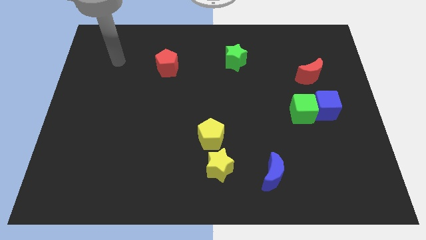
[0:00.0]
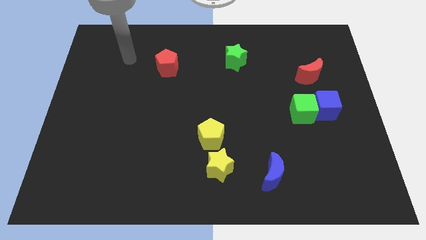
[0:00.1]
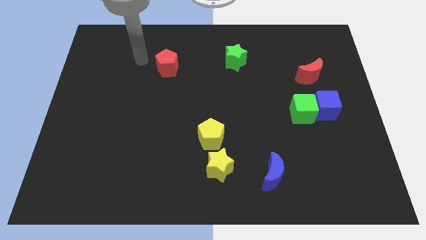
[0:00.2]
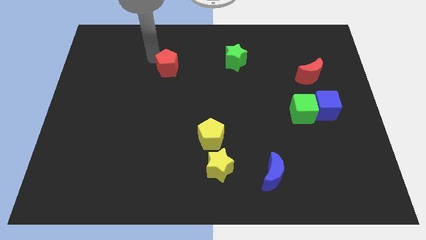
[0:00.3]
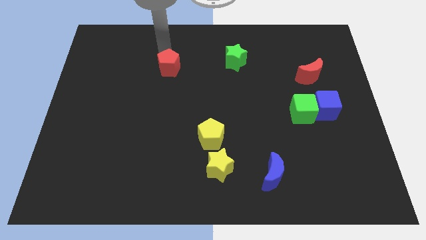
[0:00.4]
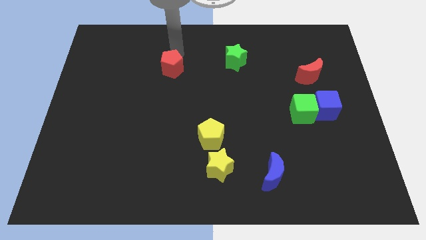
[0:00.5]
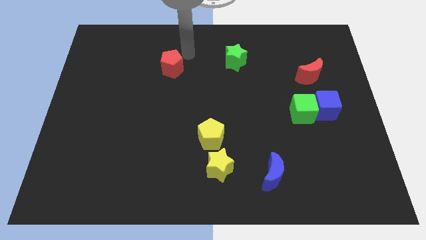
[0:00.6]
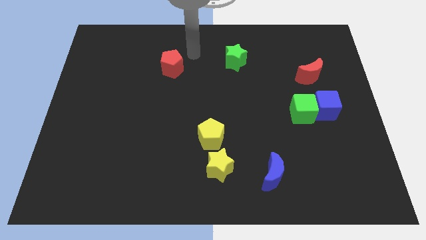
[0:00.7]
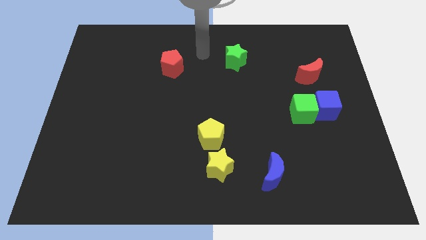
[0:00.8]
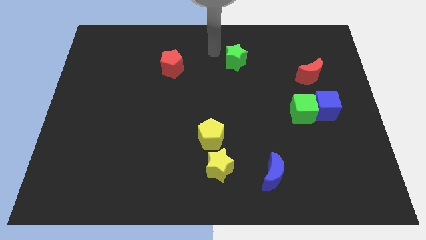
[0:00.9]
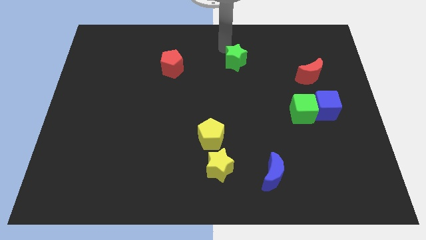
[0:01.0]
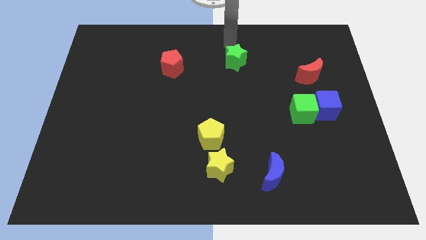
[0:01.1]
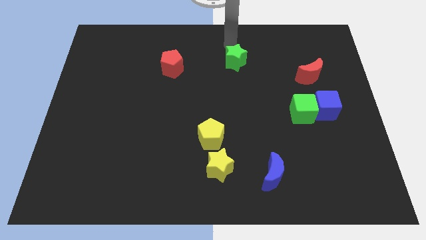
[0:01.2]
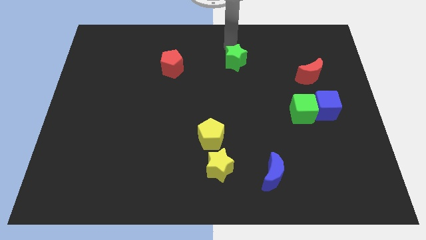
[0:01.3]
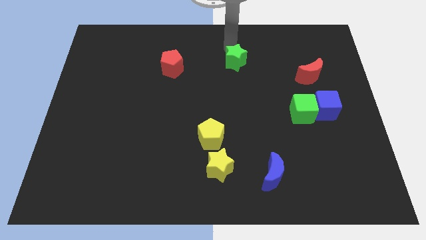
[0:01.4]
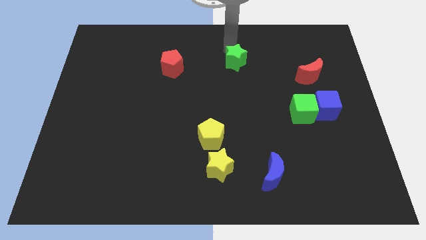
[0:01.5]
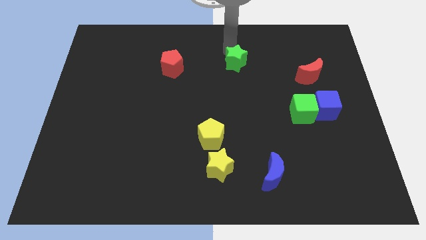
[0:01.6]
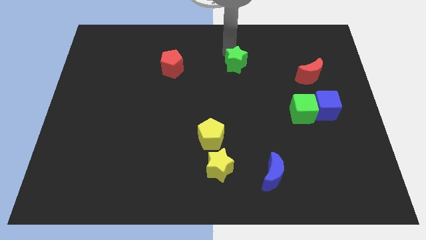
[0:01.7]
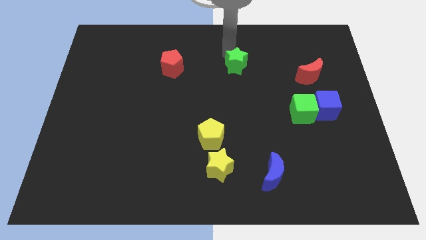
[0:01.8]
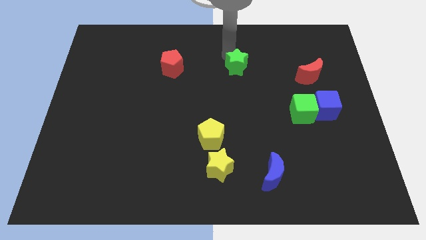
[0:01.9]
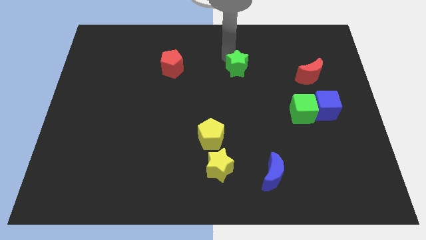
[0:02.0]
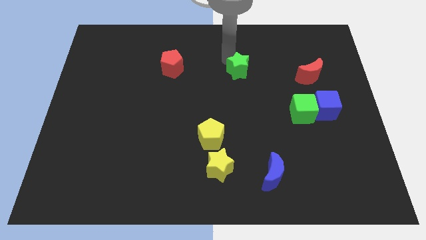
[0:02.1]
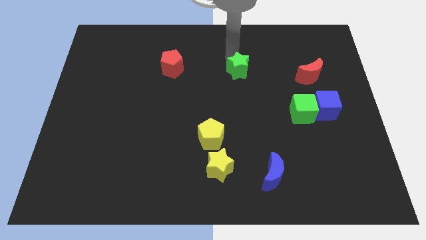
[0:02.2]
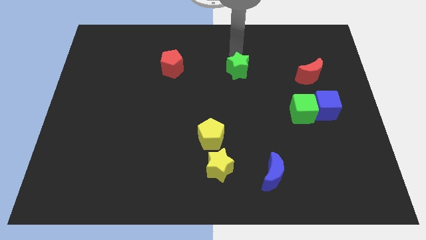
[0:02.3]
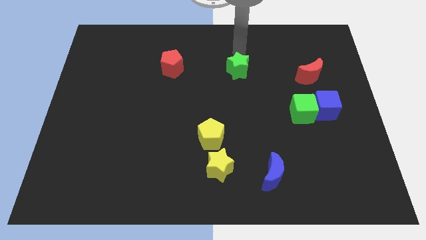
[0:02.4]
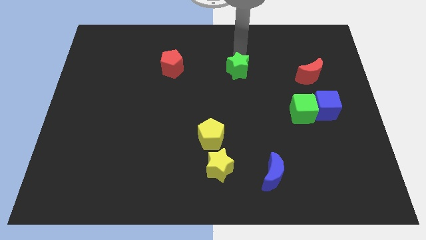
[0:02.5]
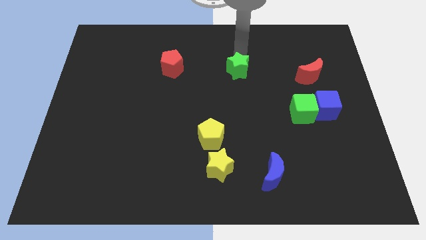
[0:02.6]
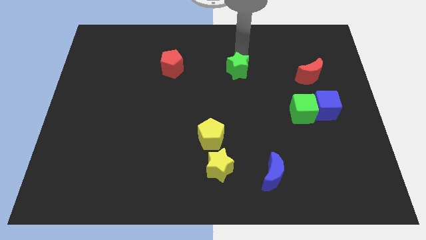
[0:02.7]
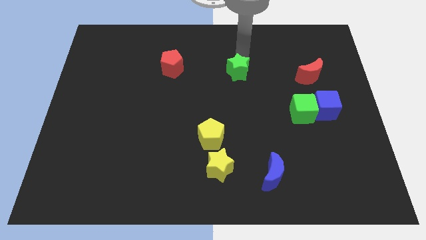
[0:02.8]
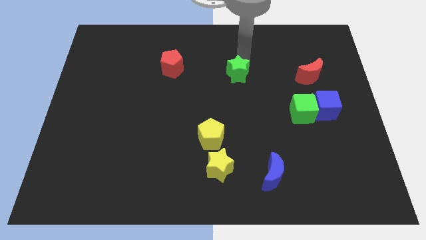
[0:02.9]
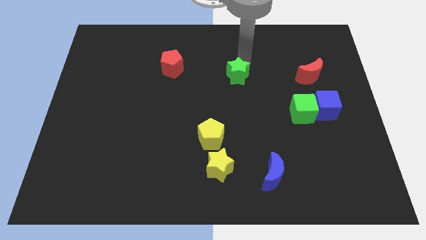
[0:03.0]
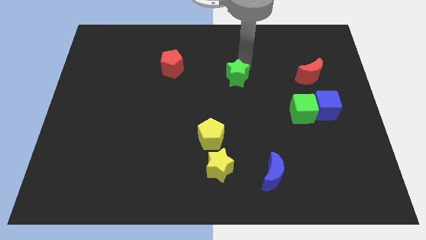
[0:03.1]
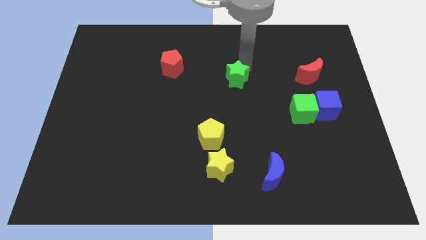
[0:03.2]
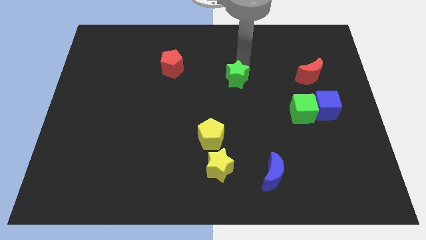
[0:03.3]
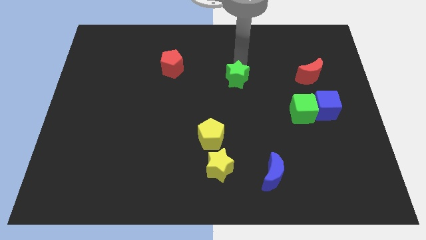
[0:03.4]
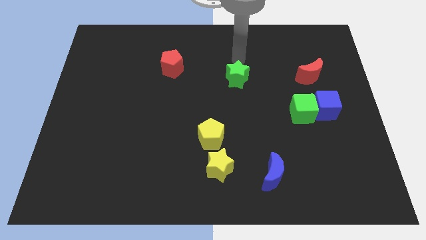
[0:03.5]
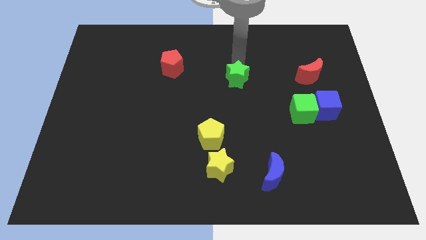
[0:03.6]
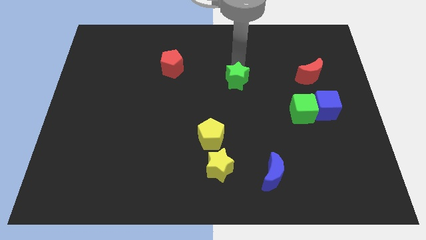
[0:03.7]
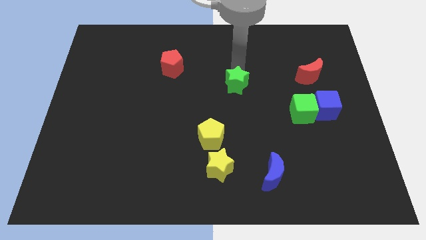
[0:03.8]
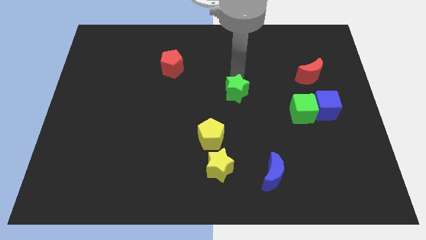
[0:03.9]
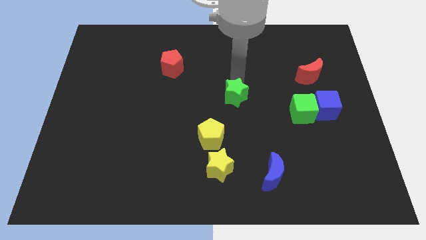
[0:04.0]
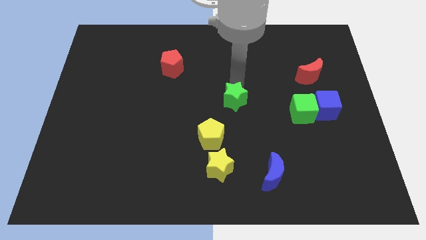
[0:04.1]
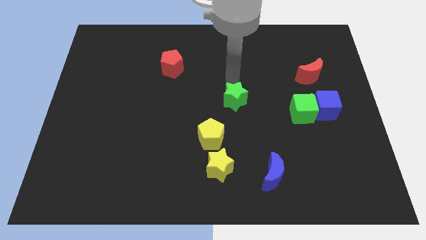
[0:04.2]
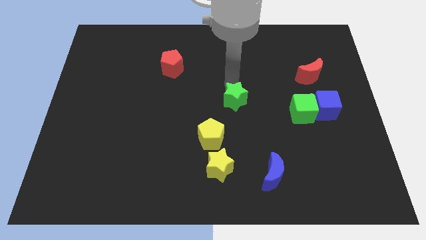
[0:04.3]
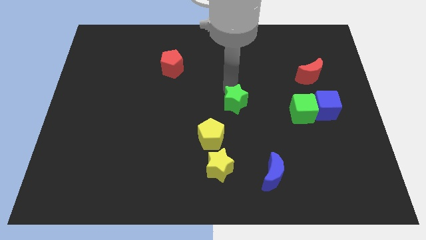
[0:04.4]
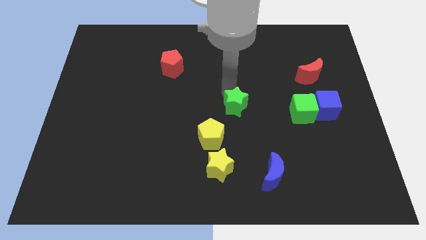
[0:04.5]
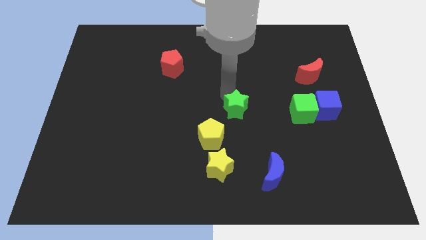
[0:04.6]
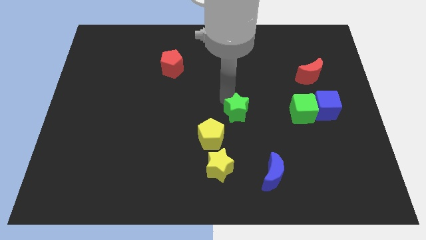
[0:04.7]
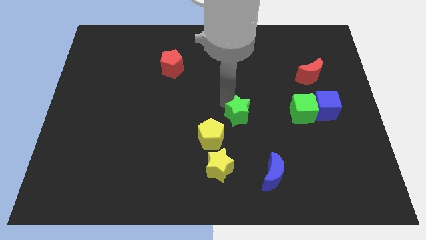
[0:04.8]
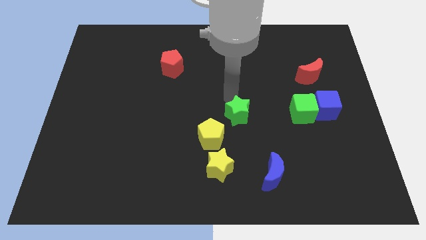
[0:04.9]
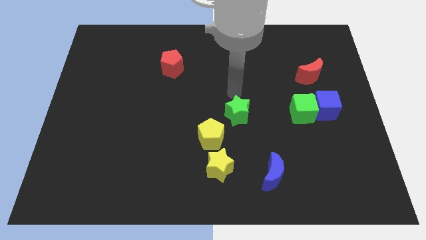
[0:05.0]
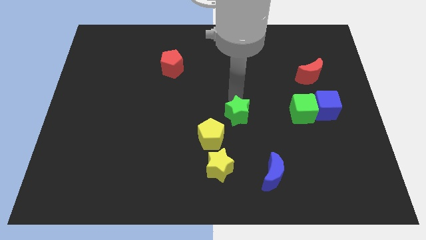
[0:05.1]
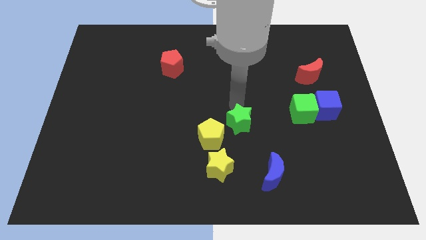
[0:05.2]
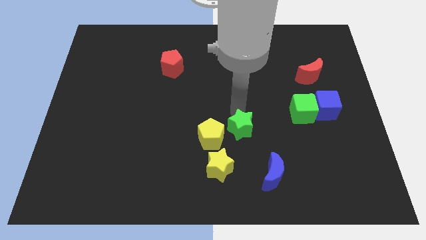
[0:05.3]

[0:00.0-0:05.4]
put the green star to the top right side of the yellow star

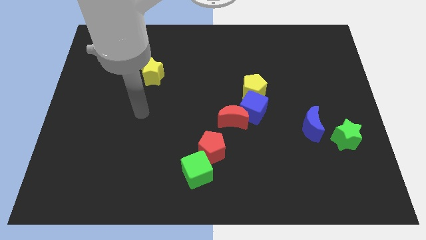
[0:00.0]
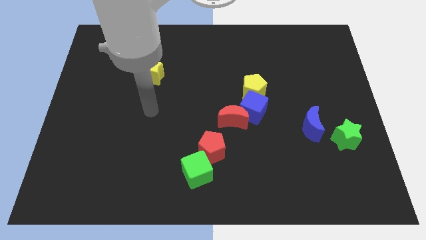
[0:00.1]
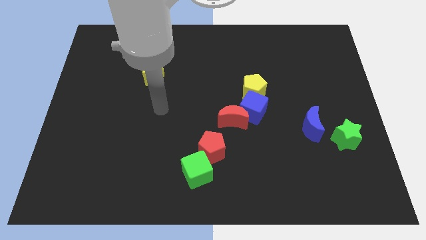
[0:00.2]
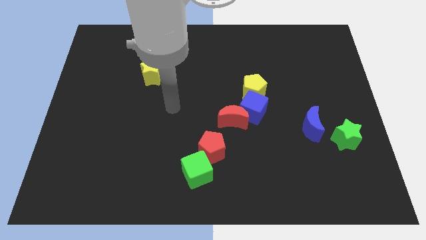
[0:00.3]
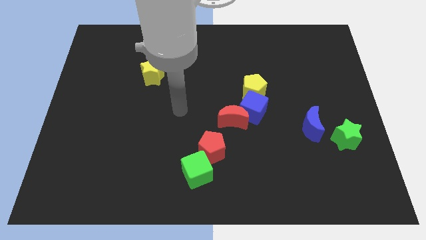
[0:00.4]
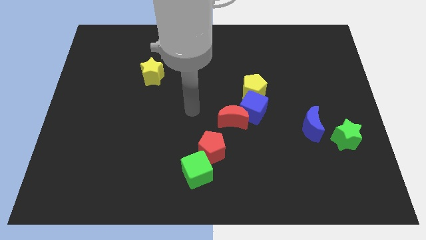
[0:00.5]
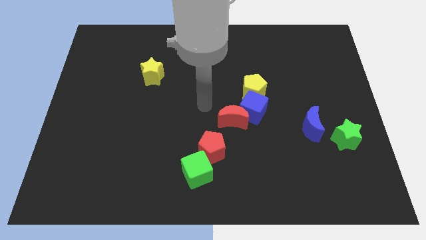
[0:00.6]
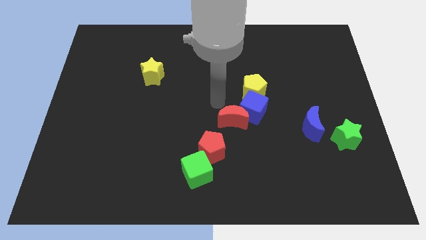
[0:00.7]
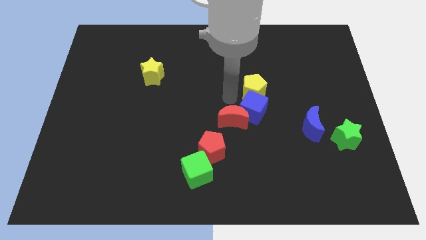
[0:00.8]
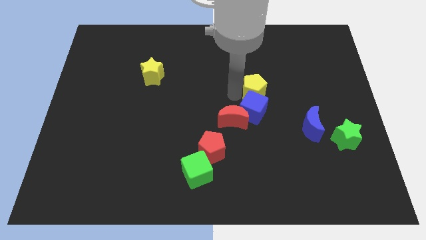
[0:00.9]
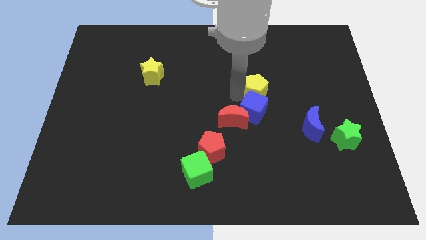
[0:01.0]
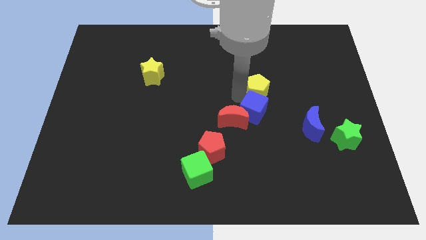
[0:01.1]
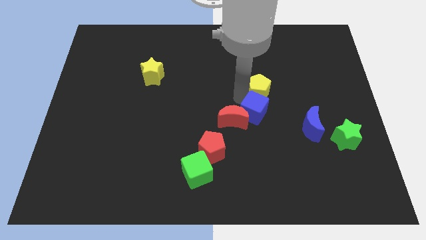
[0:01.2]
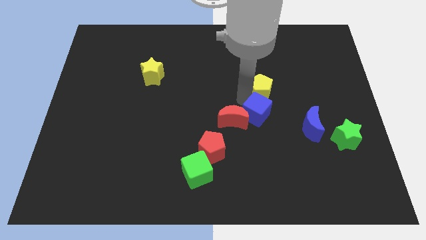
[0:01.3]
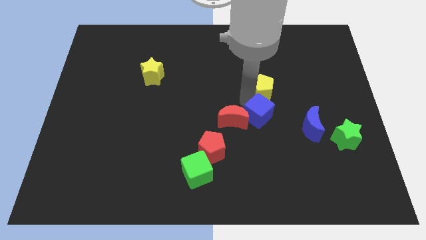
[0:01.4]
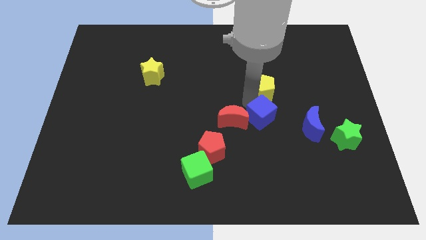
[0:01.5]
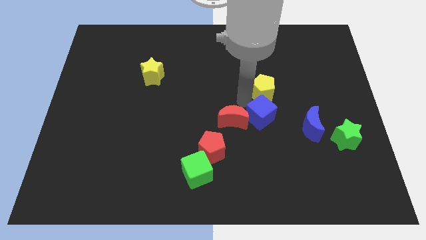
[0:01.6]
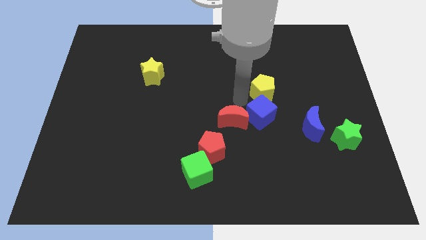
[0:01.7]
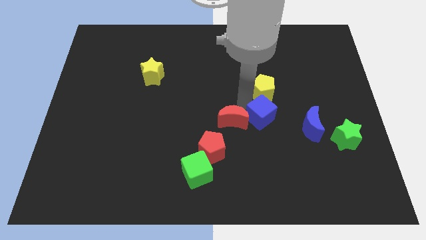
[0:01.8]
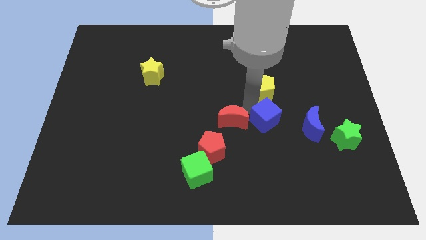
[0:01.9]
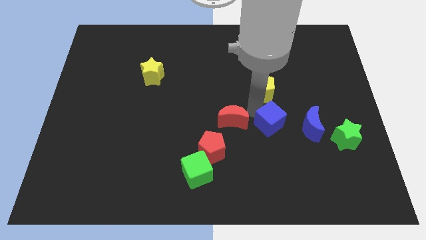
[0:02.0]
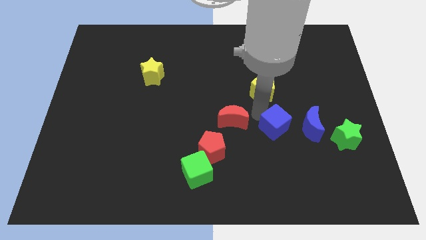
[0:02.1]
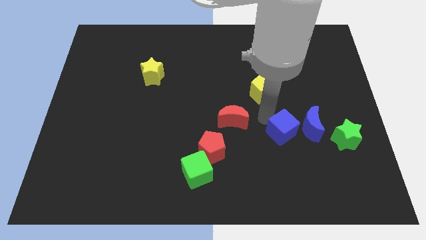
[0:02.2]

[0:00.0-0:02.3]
push the blue cube to the bottom left of the blue moon

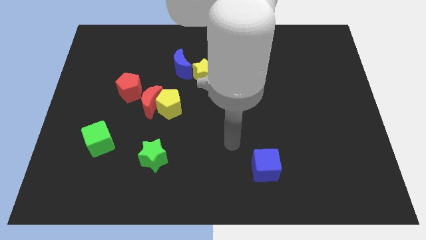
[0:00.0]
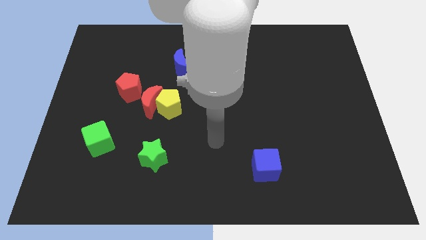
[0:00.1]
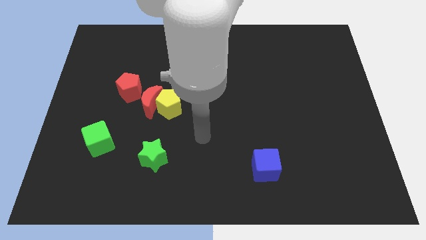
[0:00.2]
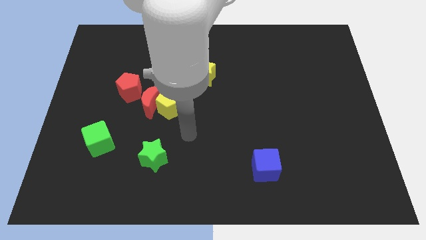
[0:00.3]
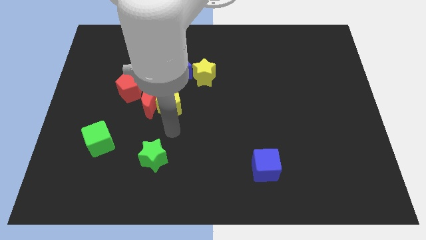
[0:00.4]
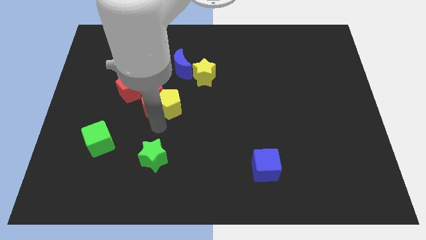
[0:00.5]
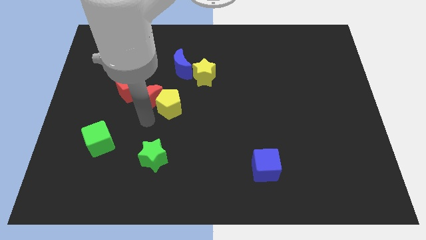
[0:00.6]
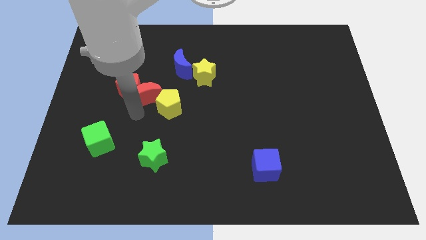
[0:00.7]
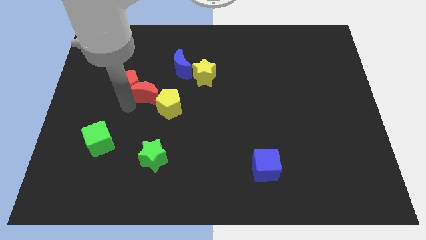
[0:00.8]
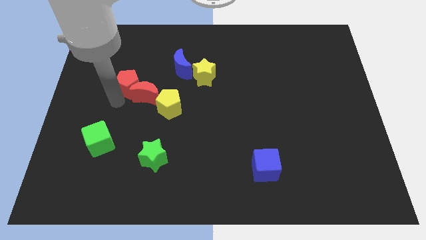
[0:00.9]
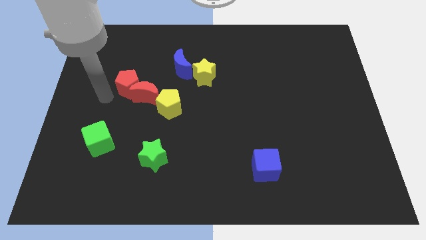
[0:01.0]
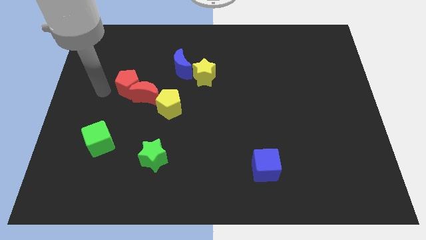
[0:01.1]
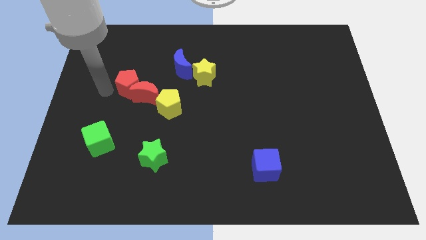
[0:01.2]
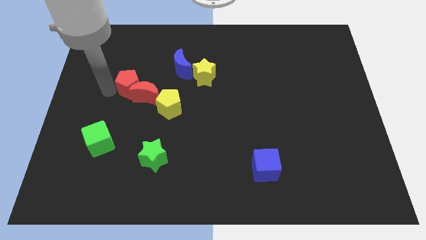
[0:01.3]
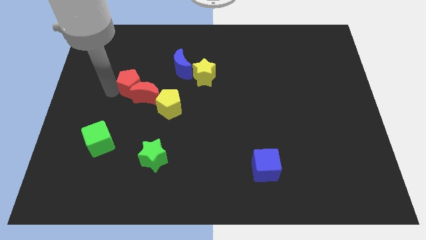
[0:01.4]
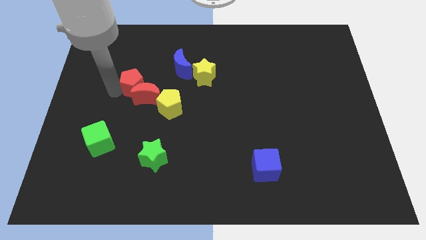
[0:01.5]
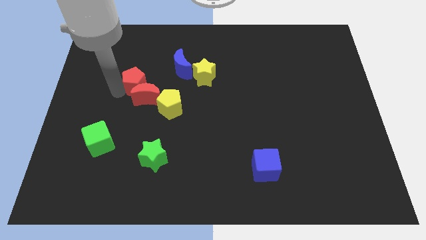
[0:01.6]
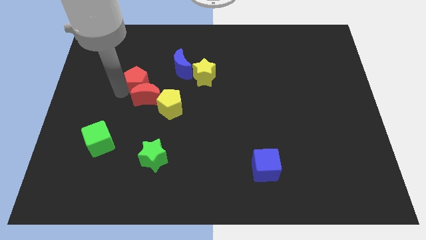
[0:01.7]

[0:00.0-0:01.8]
put the red pentagon to the bottom left of the blue moon
